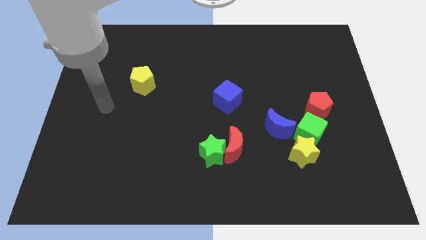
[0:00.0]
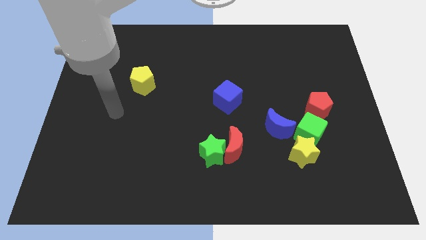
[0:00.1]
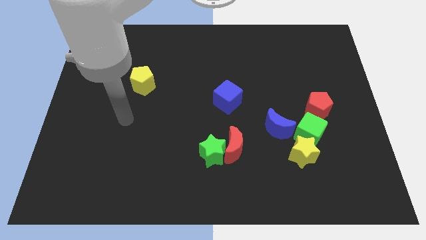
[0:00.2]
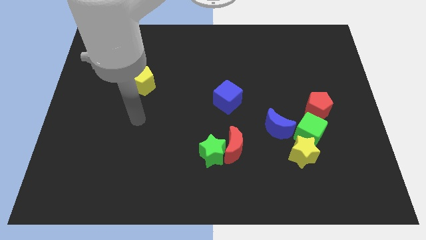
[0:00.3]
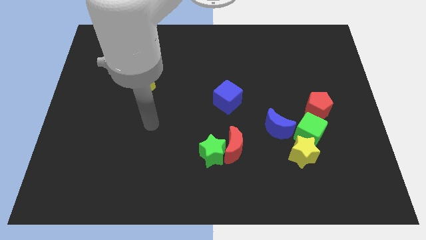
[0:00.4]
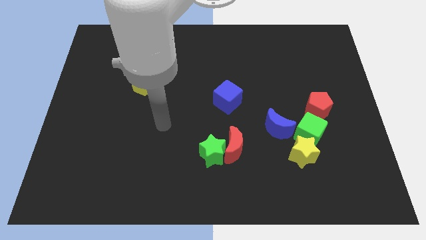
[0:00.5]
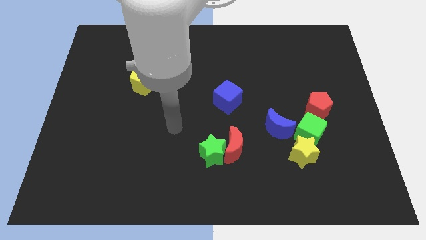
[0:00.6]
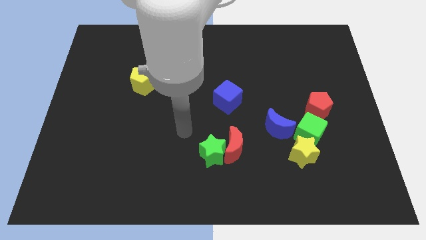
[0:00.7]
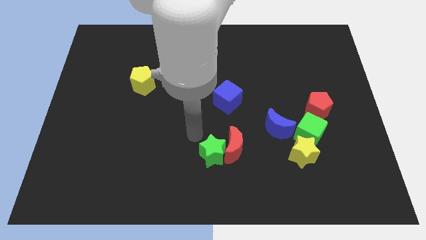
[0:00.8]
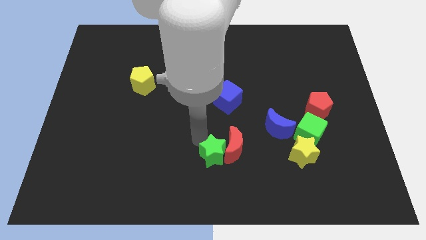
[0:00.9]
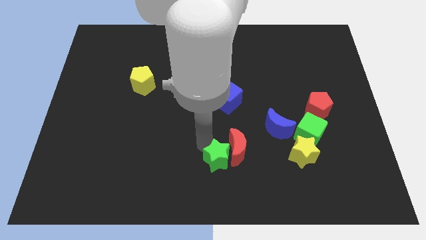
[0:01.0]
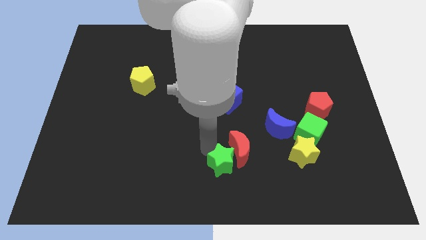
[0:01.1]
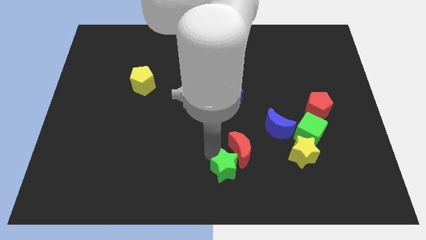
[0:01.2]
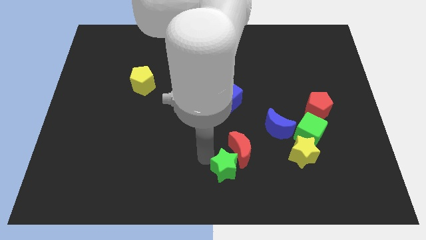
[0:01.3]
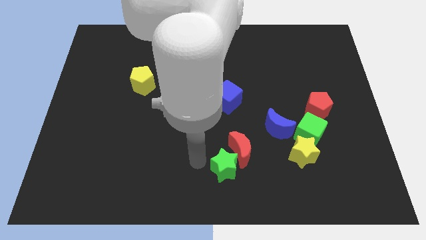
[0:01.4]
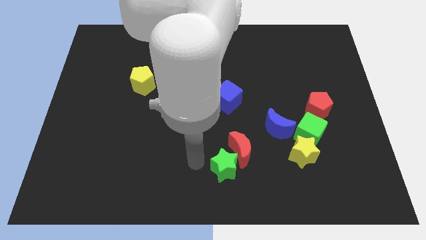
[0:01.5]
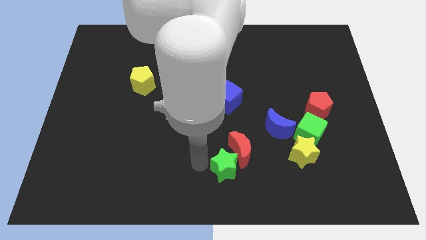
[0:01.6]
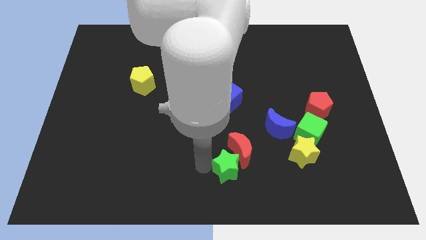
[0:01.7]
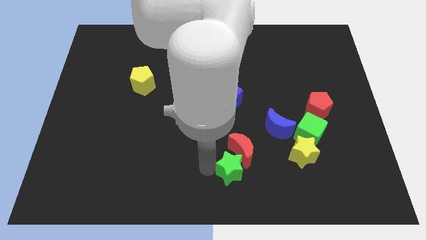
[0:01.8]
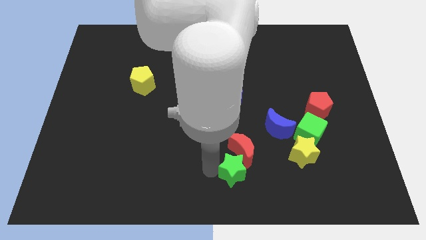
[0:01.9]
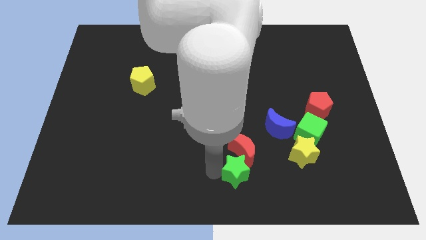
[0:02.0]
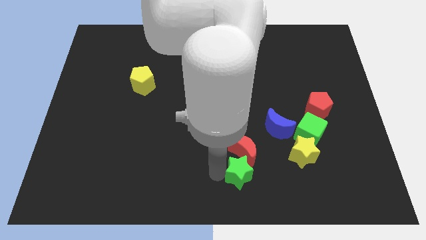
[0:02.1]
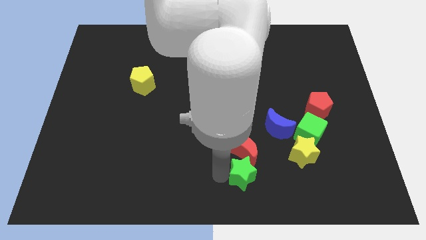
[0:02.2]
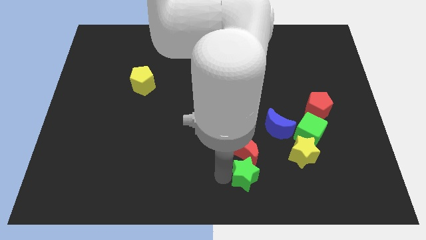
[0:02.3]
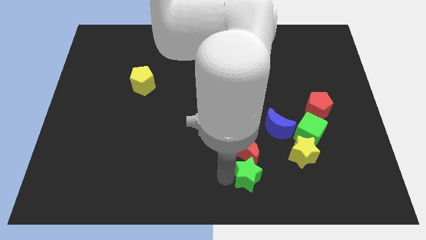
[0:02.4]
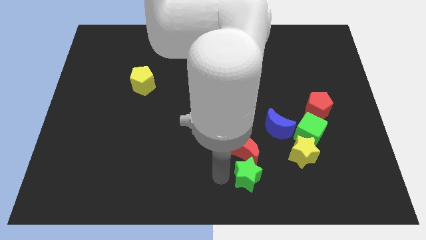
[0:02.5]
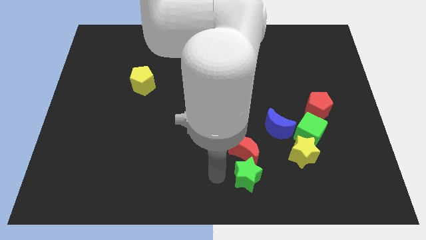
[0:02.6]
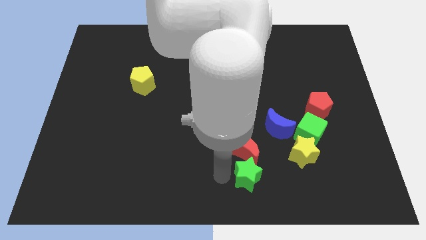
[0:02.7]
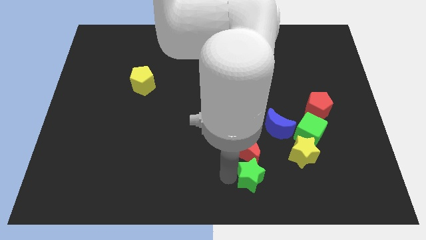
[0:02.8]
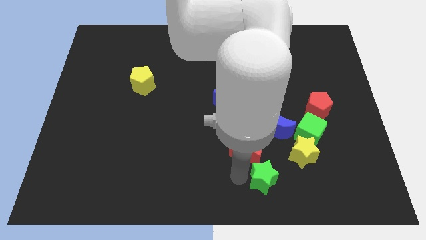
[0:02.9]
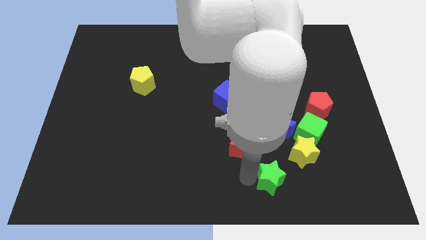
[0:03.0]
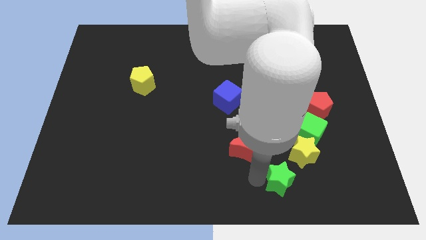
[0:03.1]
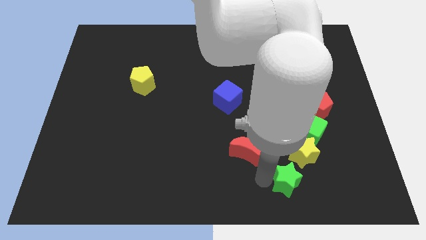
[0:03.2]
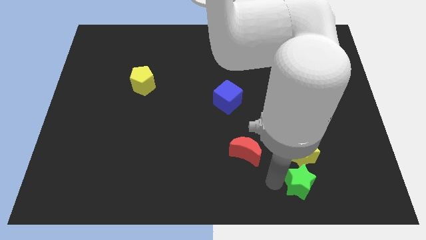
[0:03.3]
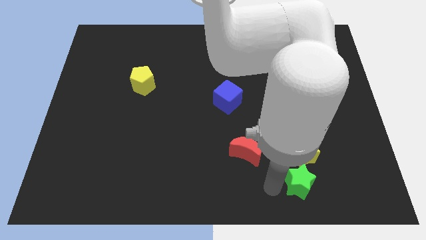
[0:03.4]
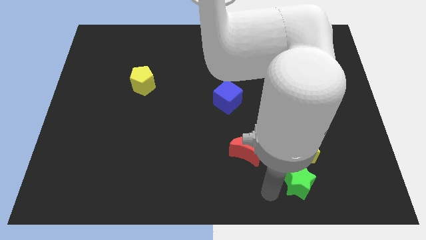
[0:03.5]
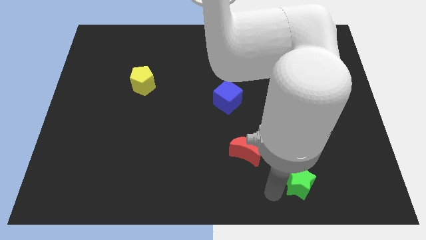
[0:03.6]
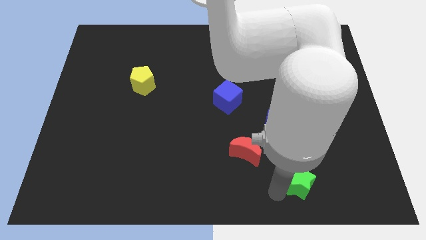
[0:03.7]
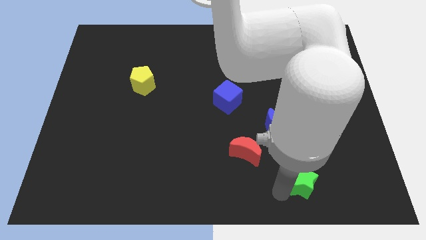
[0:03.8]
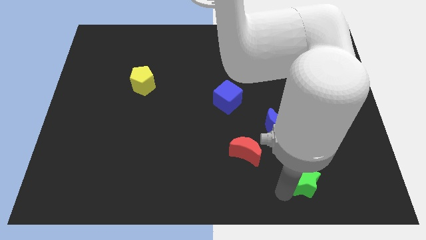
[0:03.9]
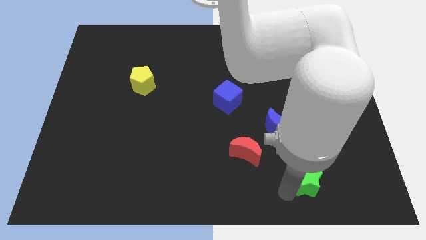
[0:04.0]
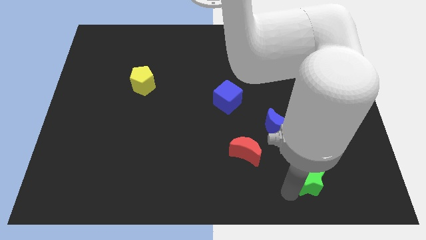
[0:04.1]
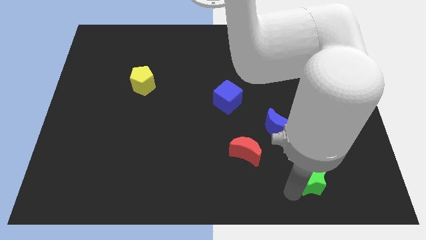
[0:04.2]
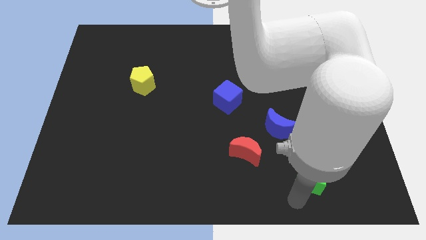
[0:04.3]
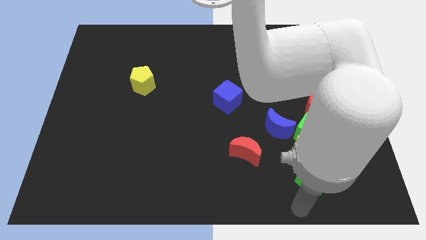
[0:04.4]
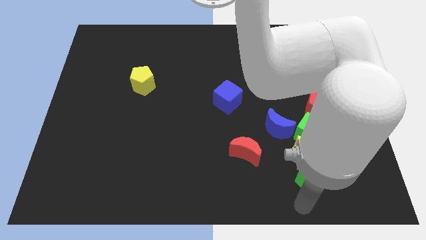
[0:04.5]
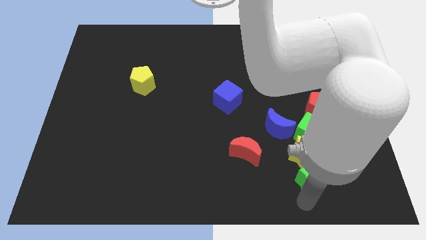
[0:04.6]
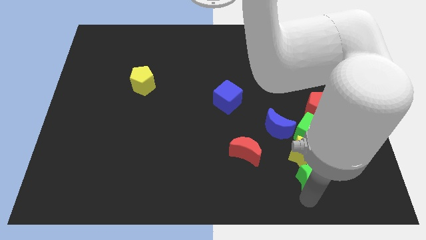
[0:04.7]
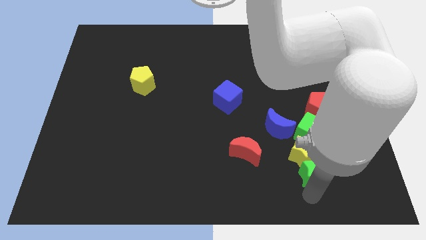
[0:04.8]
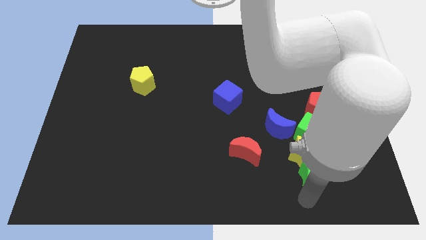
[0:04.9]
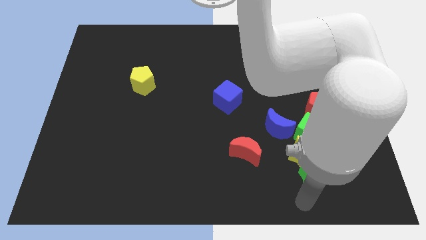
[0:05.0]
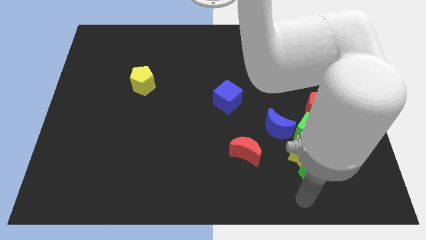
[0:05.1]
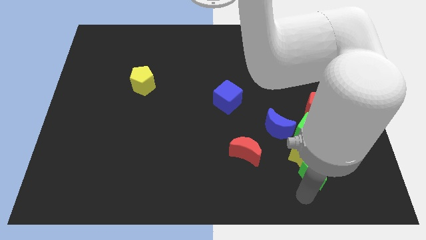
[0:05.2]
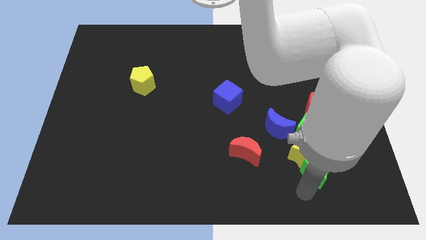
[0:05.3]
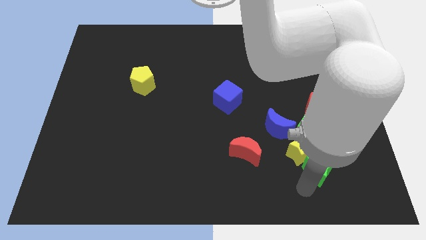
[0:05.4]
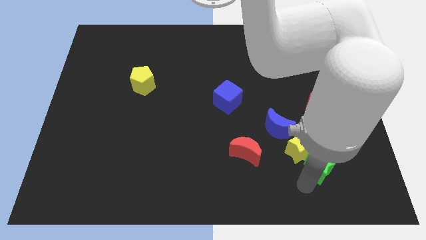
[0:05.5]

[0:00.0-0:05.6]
slide the green star to the bottom of the red pentagon

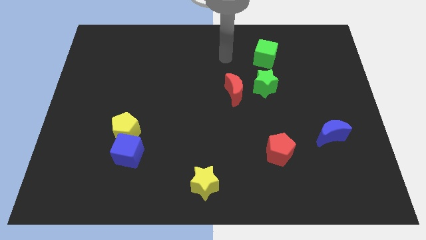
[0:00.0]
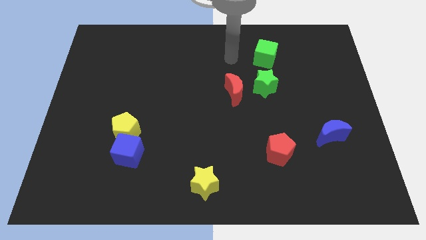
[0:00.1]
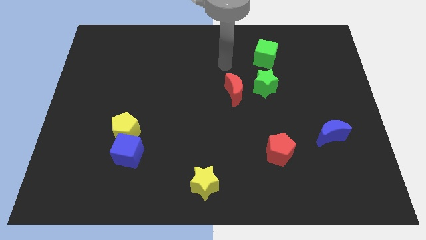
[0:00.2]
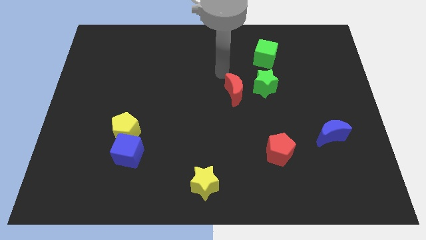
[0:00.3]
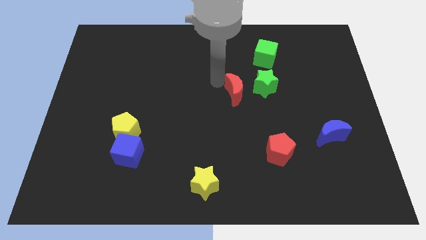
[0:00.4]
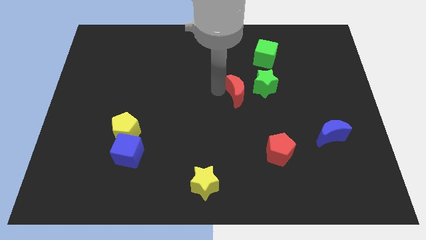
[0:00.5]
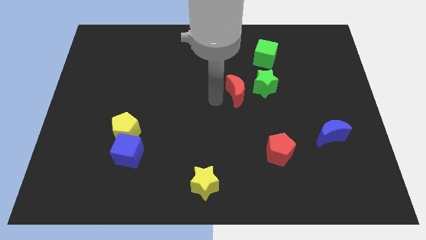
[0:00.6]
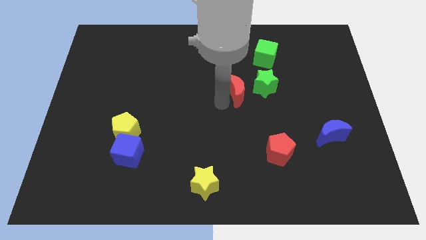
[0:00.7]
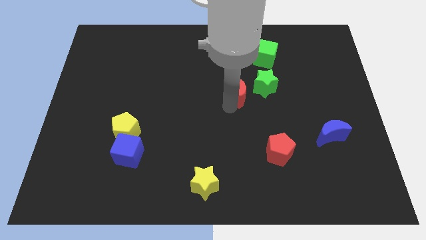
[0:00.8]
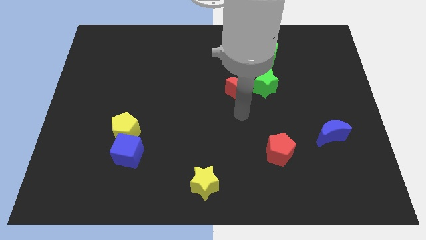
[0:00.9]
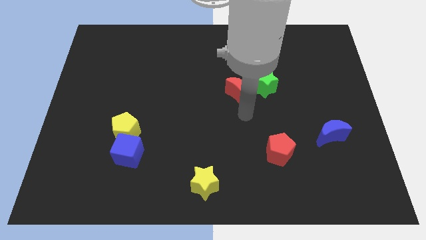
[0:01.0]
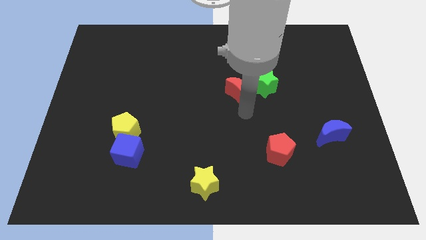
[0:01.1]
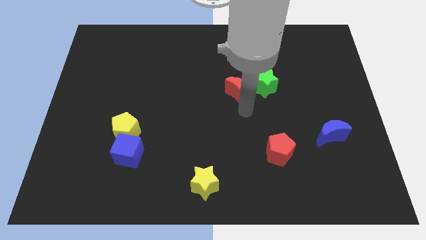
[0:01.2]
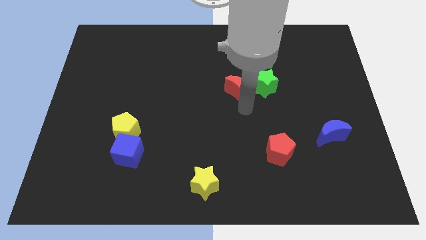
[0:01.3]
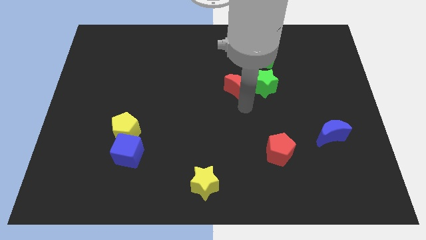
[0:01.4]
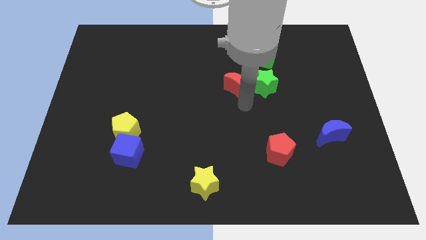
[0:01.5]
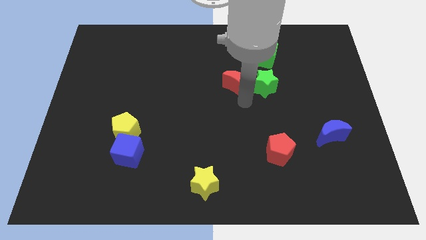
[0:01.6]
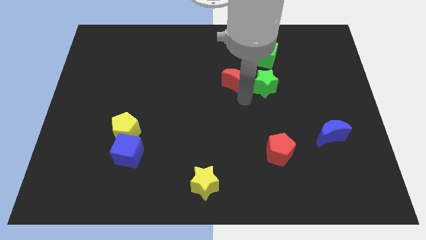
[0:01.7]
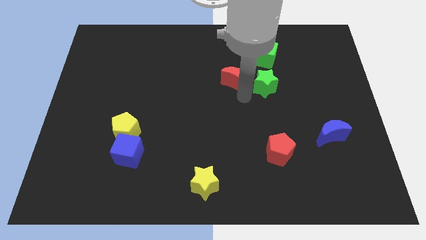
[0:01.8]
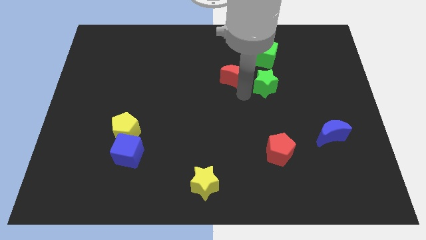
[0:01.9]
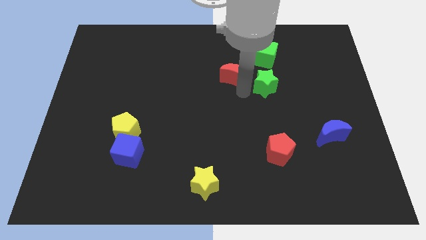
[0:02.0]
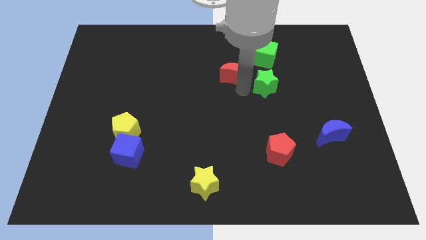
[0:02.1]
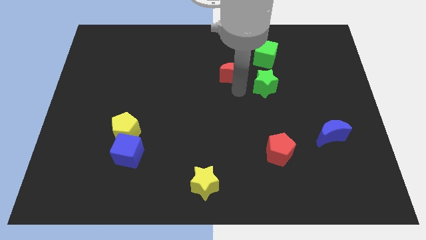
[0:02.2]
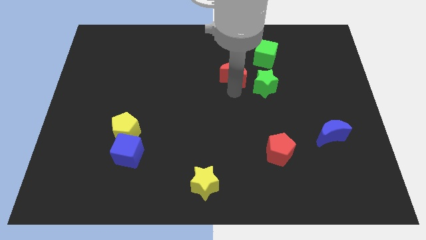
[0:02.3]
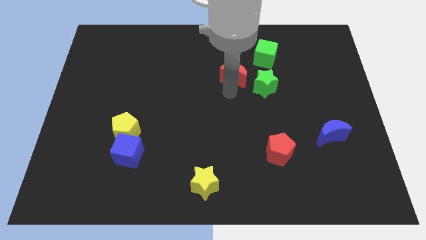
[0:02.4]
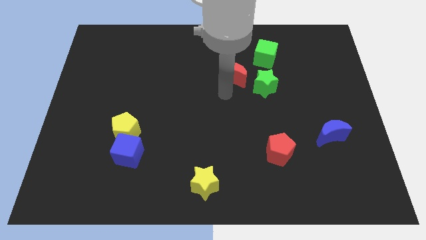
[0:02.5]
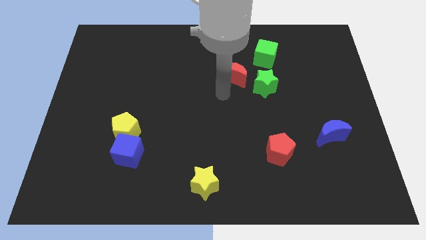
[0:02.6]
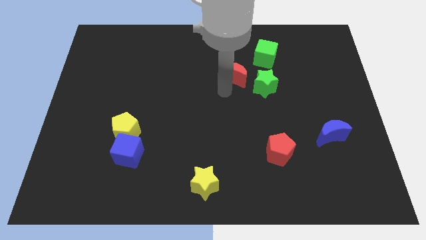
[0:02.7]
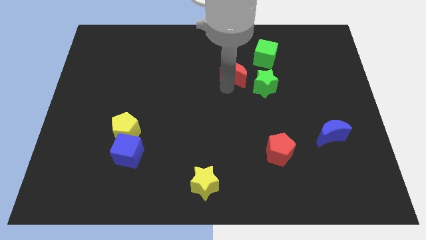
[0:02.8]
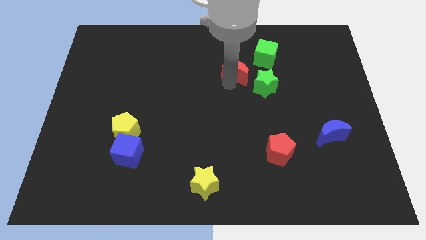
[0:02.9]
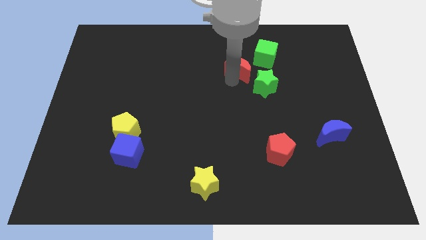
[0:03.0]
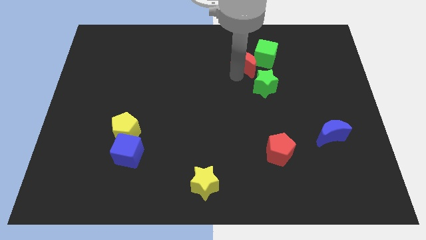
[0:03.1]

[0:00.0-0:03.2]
put the red moon above the green star
